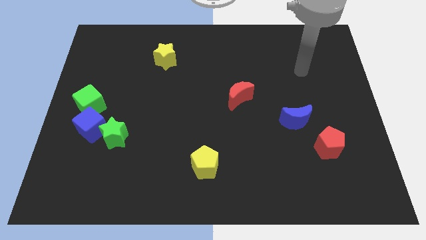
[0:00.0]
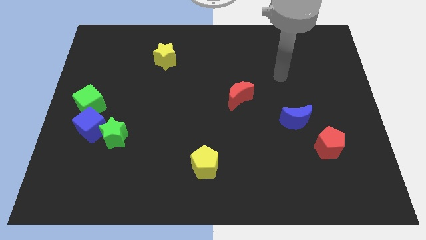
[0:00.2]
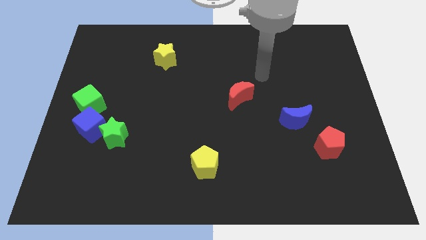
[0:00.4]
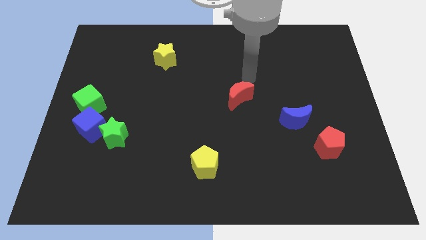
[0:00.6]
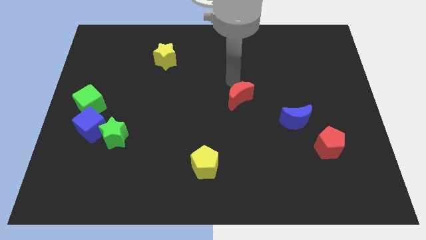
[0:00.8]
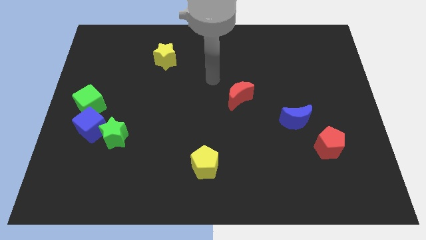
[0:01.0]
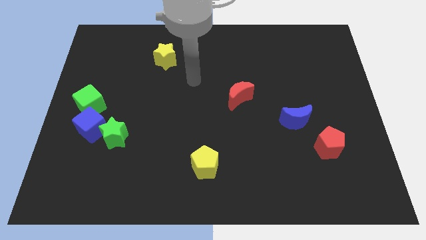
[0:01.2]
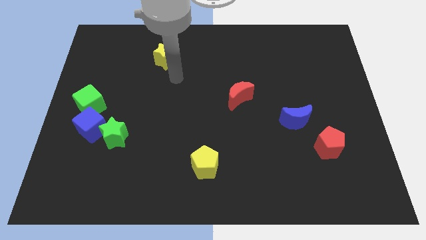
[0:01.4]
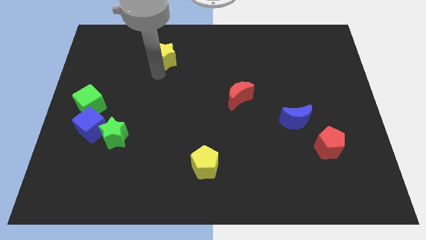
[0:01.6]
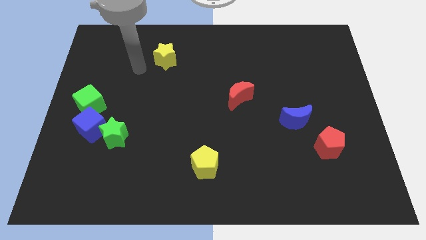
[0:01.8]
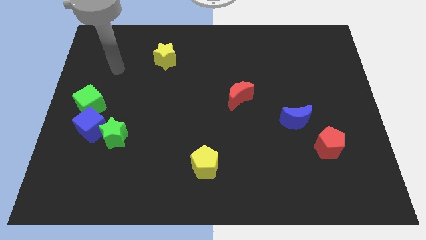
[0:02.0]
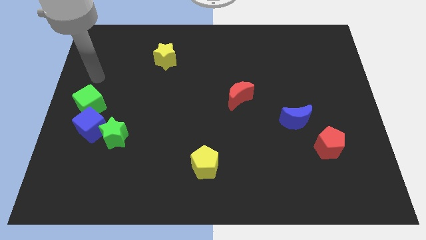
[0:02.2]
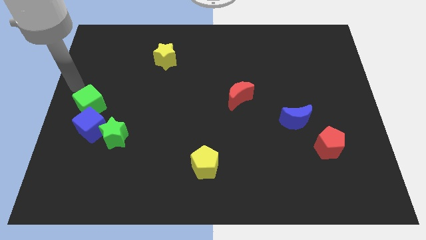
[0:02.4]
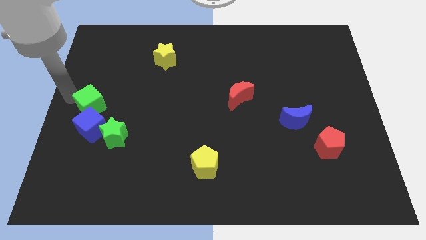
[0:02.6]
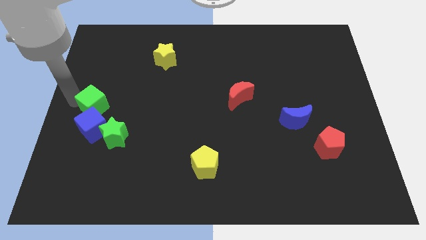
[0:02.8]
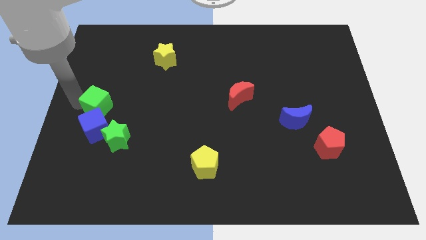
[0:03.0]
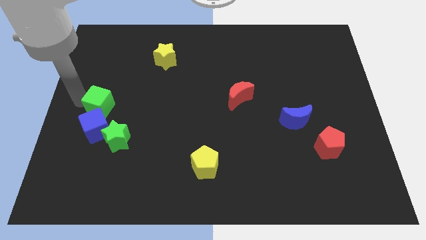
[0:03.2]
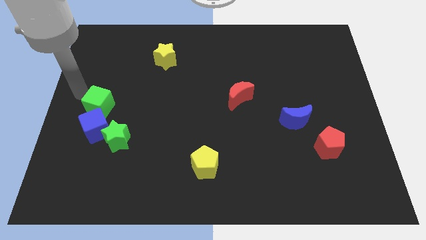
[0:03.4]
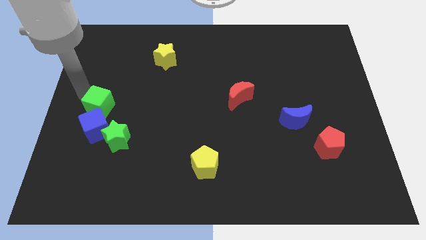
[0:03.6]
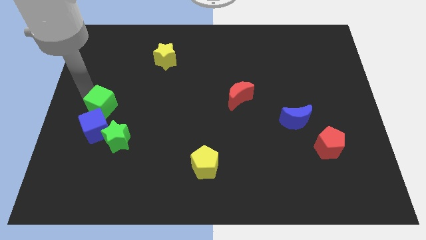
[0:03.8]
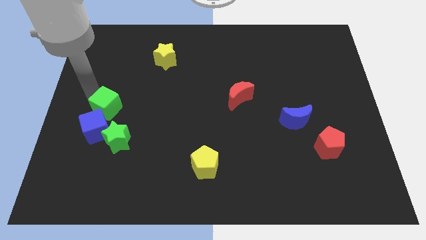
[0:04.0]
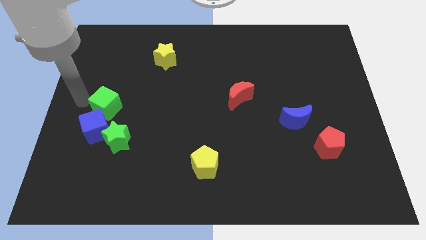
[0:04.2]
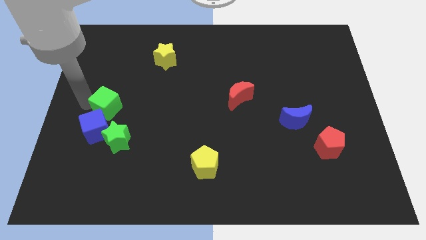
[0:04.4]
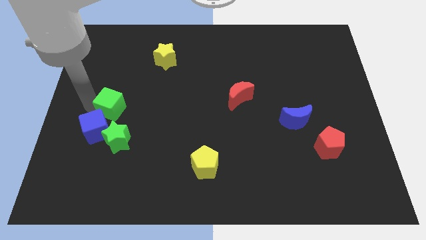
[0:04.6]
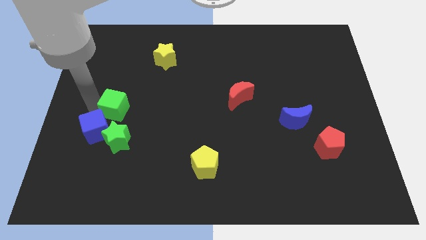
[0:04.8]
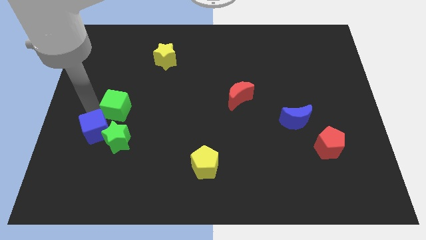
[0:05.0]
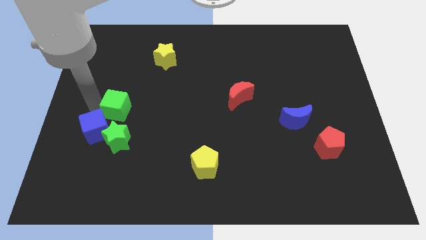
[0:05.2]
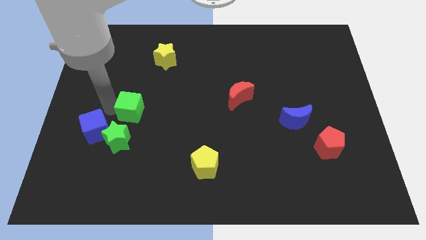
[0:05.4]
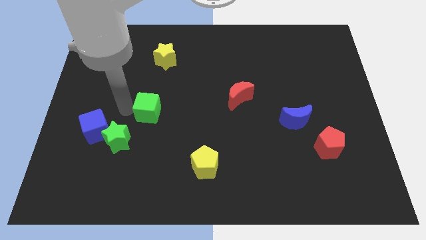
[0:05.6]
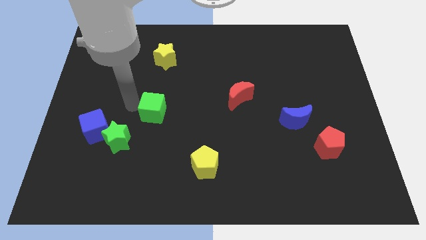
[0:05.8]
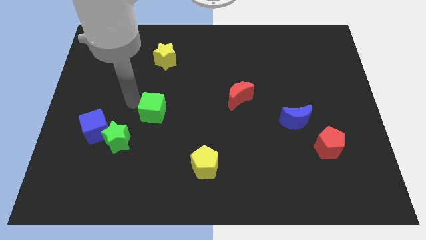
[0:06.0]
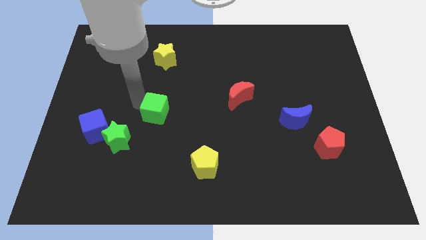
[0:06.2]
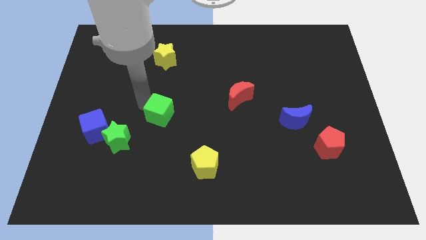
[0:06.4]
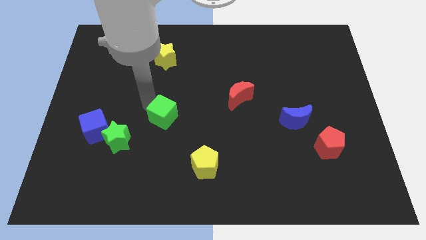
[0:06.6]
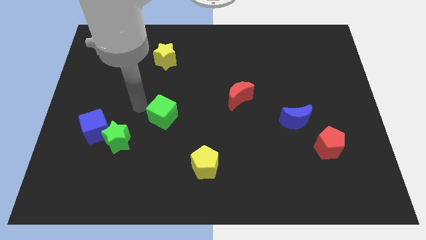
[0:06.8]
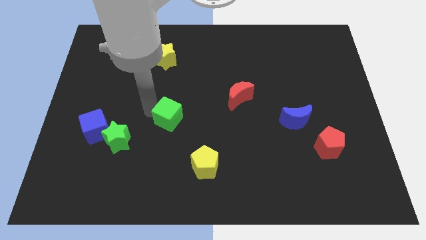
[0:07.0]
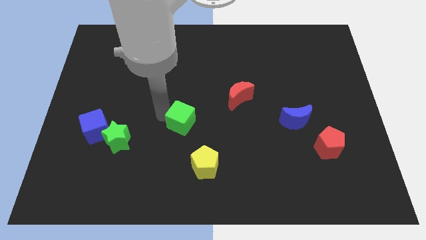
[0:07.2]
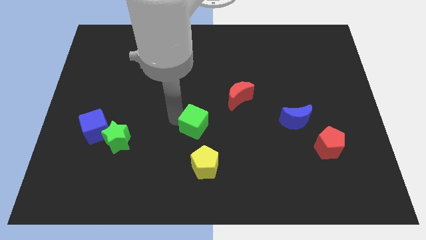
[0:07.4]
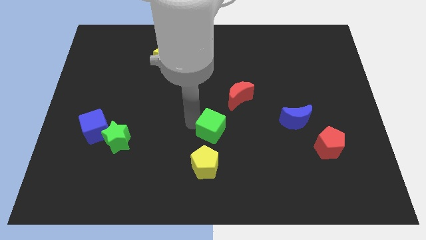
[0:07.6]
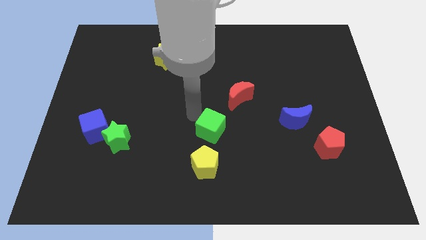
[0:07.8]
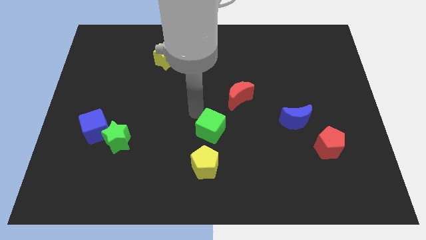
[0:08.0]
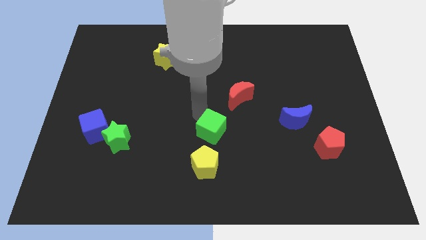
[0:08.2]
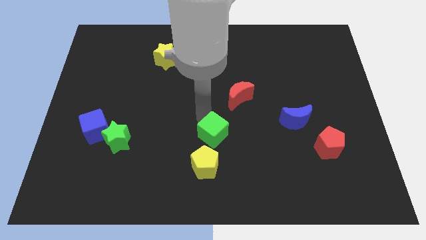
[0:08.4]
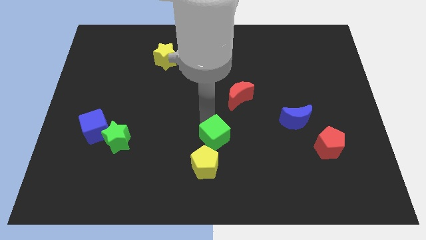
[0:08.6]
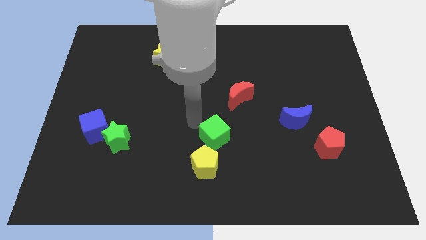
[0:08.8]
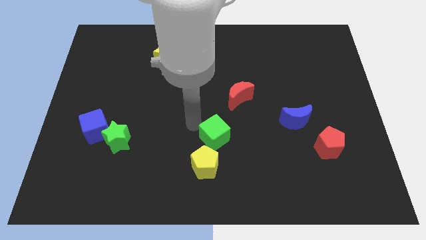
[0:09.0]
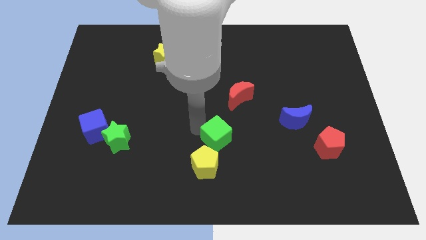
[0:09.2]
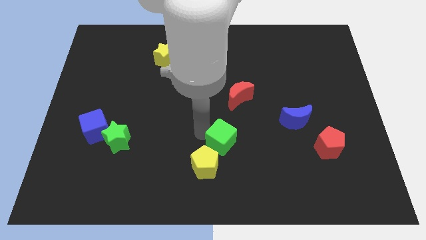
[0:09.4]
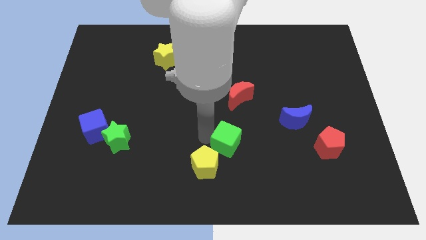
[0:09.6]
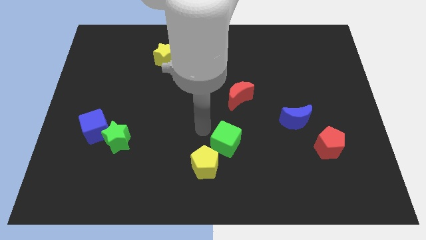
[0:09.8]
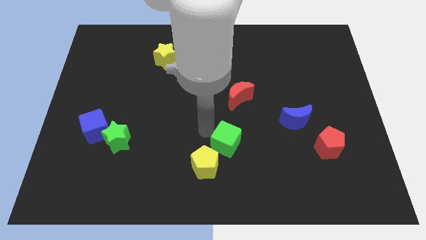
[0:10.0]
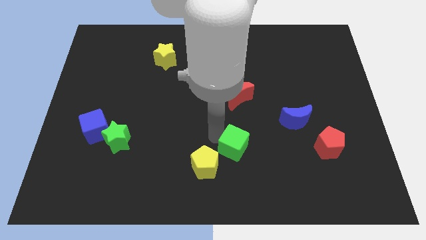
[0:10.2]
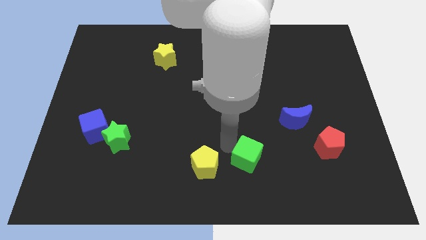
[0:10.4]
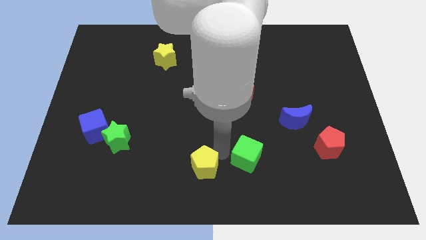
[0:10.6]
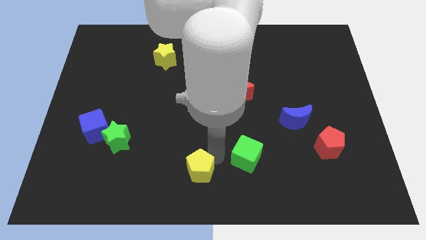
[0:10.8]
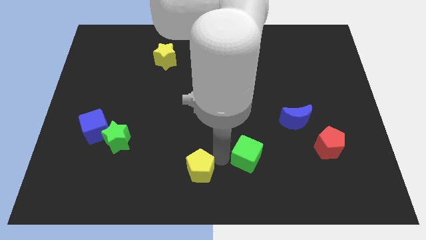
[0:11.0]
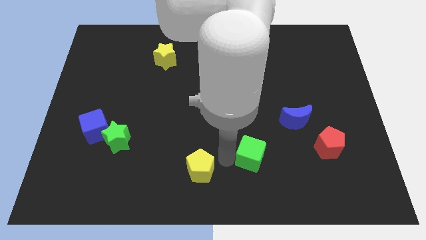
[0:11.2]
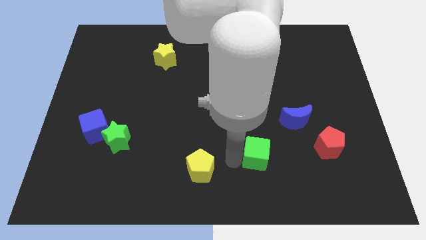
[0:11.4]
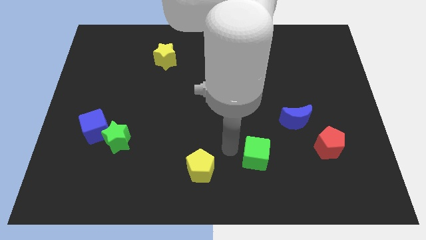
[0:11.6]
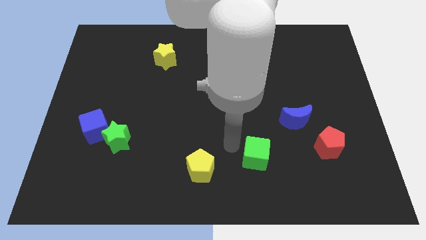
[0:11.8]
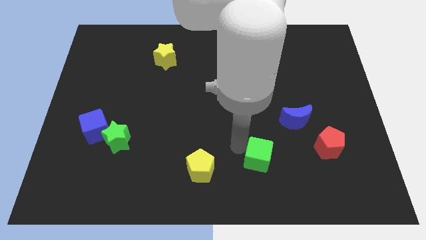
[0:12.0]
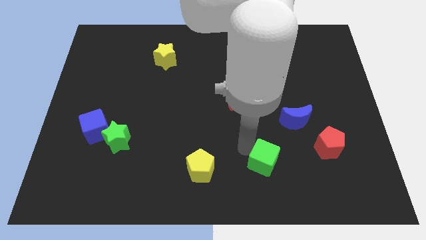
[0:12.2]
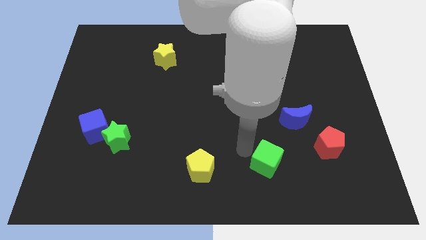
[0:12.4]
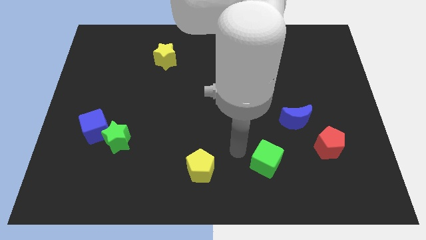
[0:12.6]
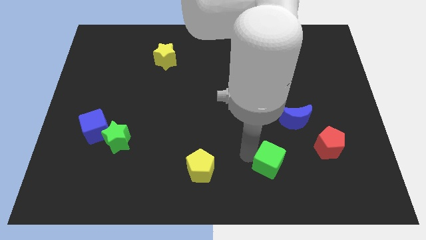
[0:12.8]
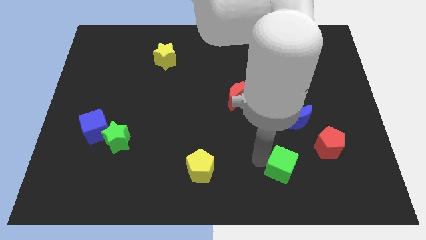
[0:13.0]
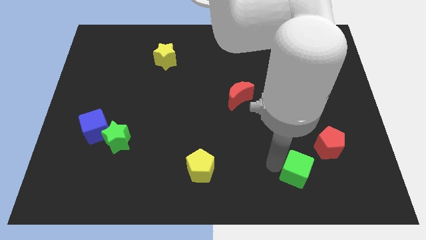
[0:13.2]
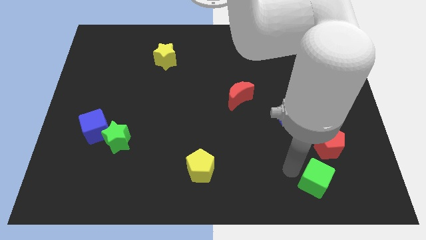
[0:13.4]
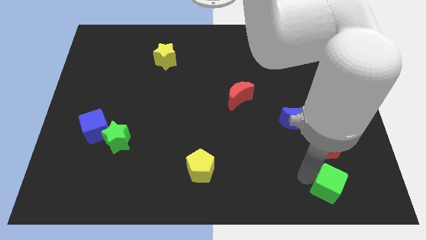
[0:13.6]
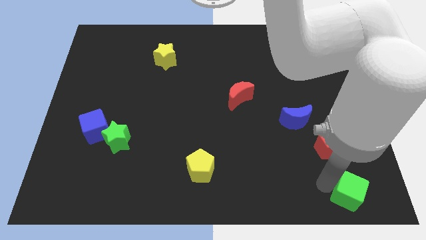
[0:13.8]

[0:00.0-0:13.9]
push the green cube to the bottom right corner
